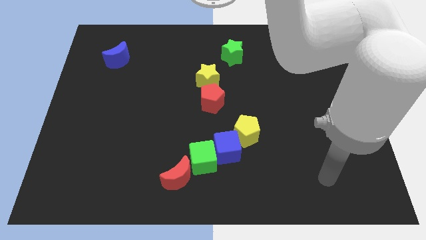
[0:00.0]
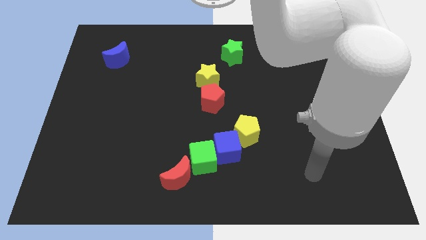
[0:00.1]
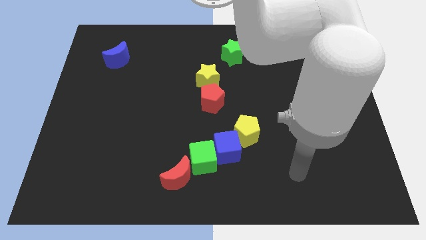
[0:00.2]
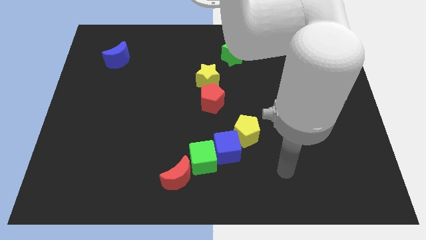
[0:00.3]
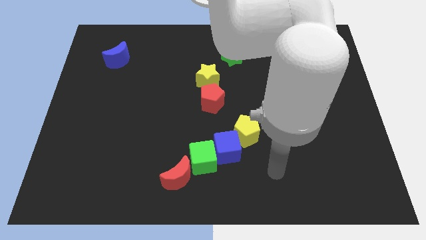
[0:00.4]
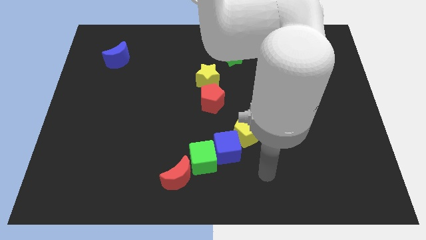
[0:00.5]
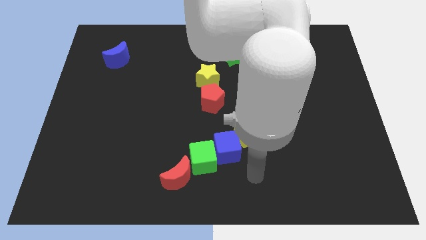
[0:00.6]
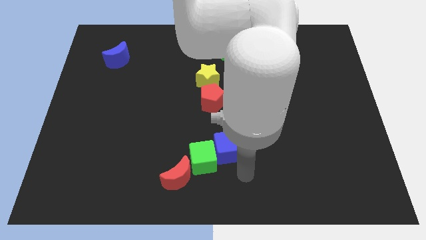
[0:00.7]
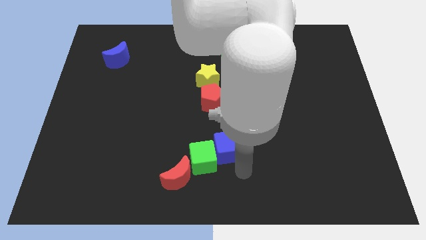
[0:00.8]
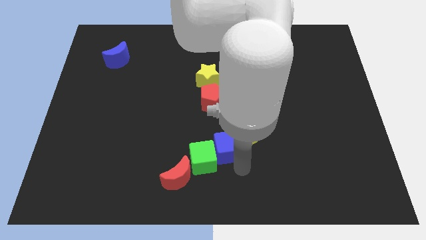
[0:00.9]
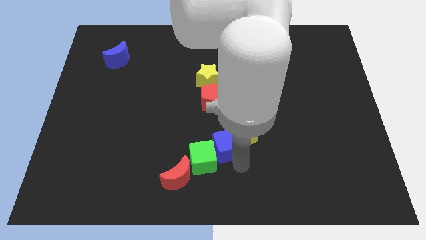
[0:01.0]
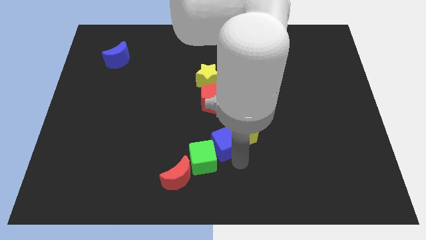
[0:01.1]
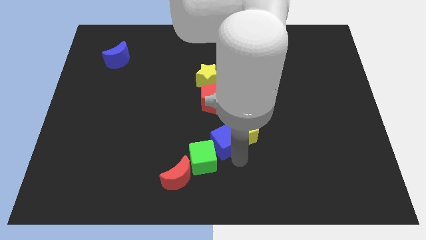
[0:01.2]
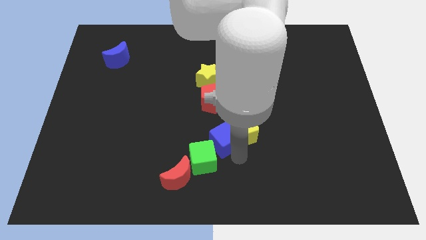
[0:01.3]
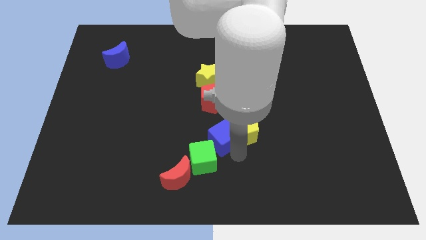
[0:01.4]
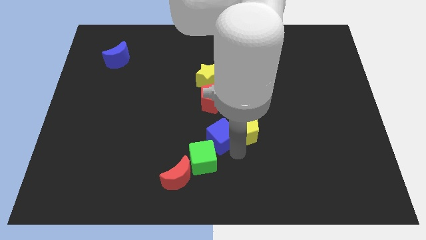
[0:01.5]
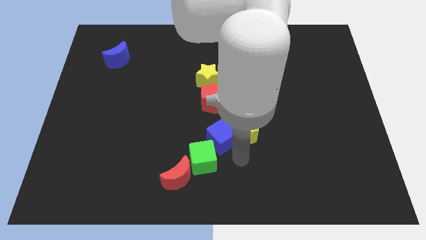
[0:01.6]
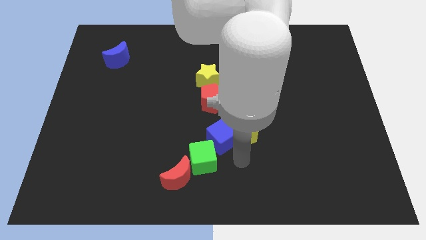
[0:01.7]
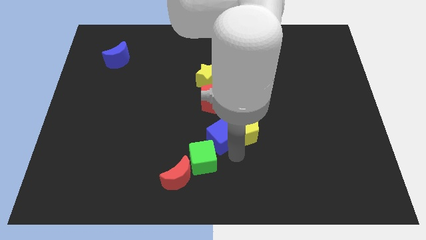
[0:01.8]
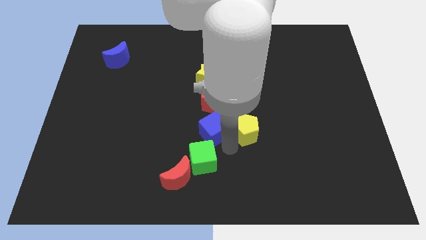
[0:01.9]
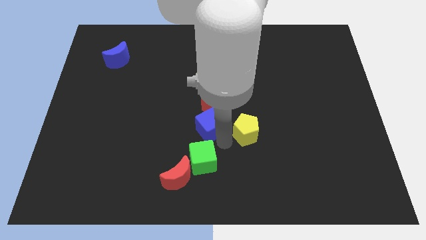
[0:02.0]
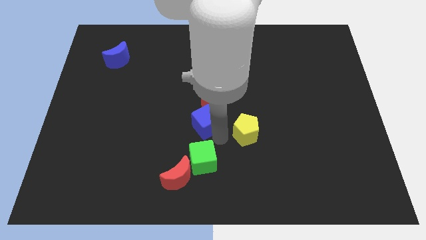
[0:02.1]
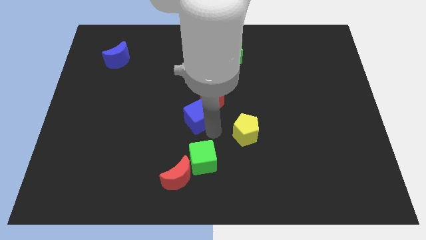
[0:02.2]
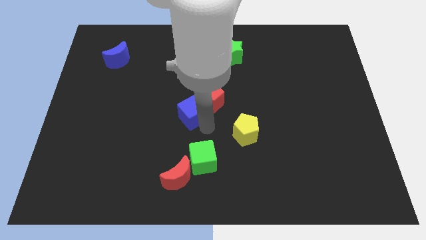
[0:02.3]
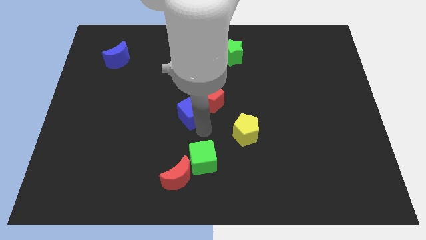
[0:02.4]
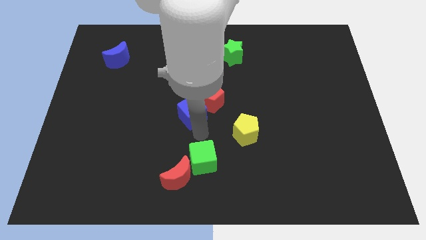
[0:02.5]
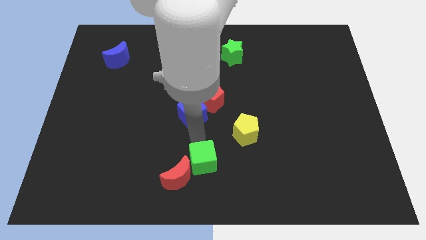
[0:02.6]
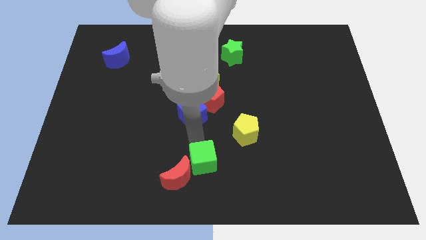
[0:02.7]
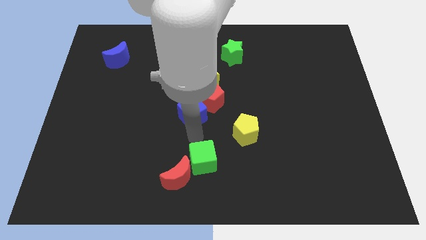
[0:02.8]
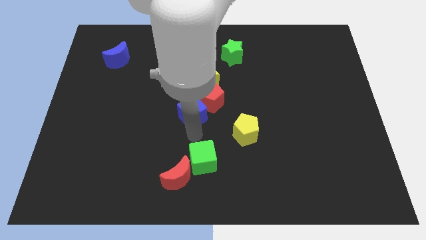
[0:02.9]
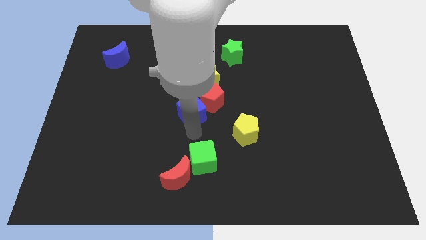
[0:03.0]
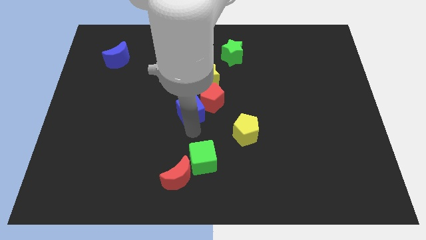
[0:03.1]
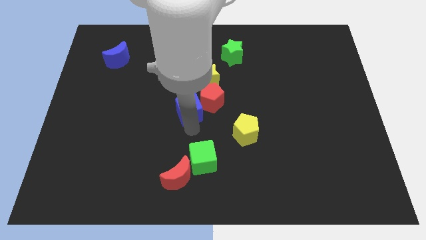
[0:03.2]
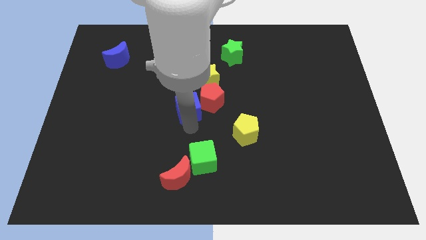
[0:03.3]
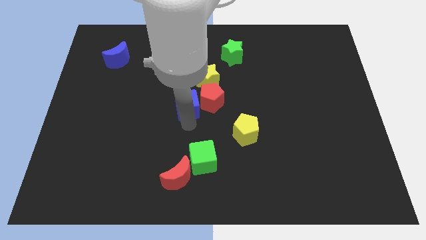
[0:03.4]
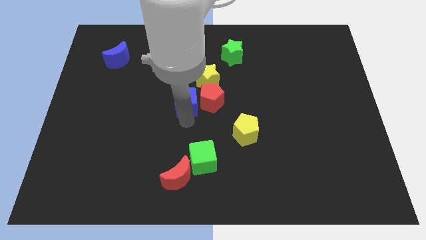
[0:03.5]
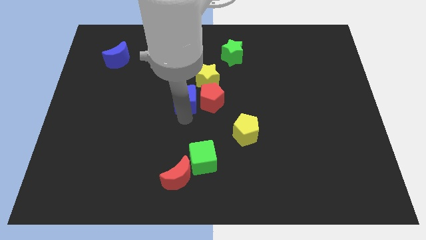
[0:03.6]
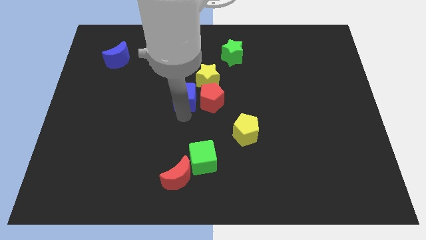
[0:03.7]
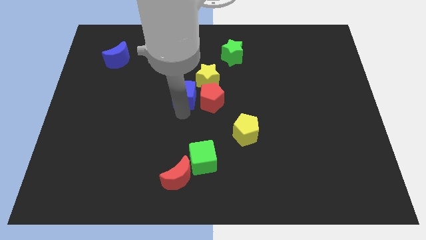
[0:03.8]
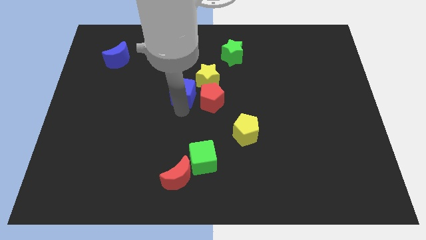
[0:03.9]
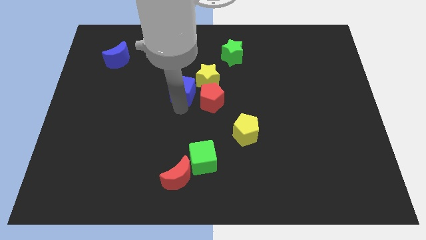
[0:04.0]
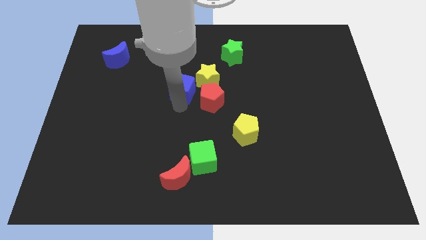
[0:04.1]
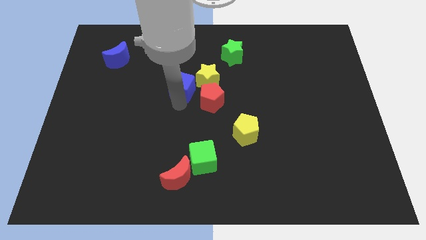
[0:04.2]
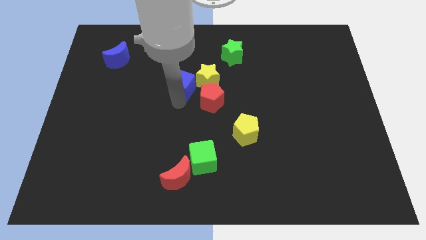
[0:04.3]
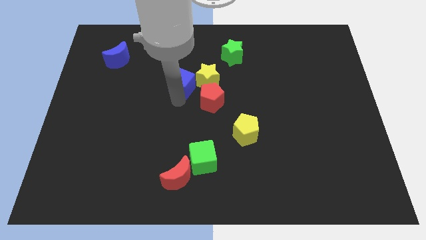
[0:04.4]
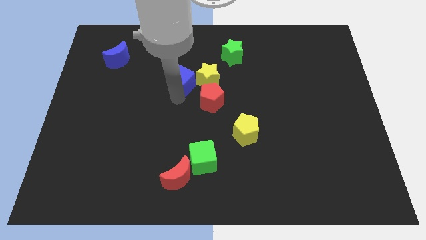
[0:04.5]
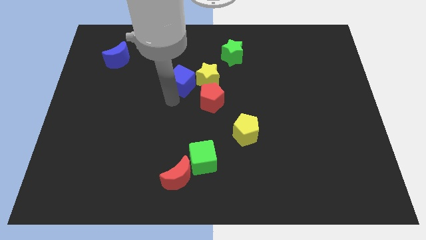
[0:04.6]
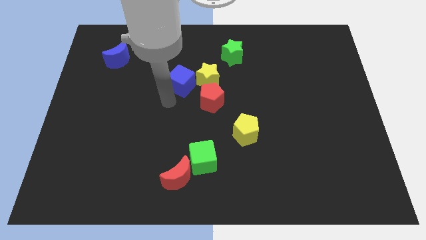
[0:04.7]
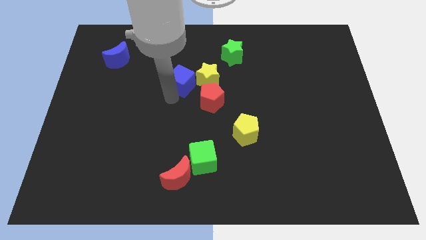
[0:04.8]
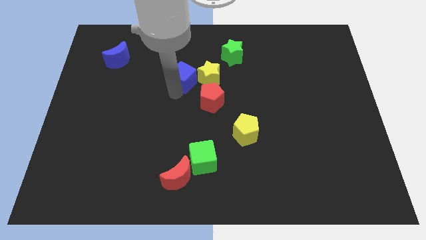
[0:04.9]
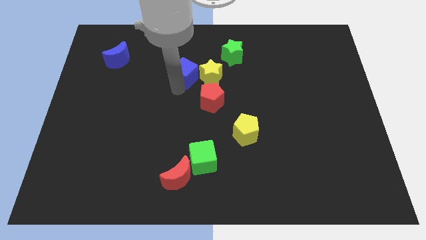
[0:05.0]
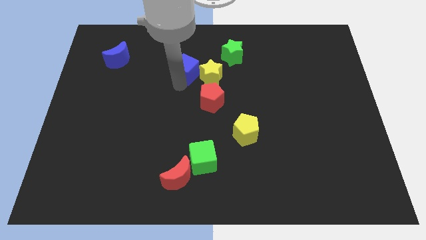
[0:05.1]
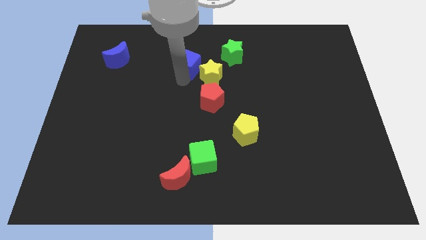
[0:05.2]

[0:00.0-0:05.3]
slide the blue cube just left of the green star
